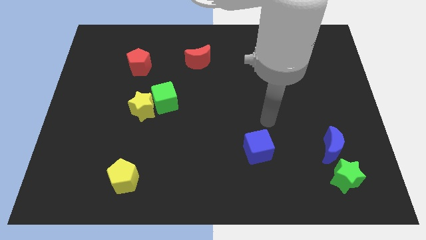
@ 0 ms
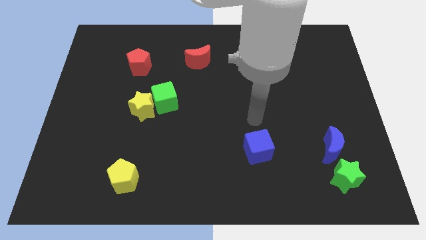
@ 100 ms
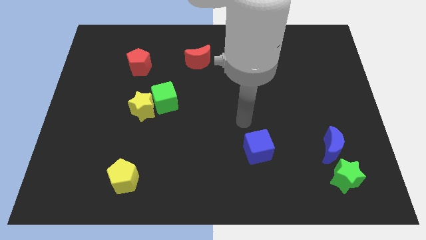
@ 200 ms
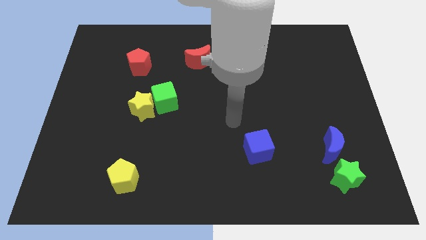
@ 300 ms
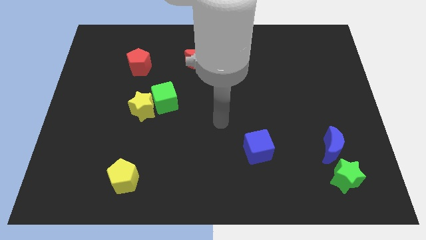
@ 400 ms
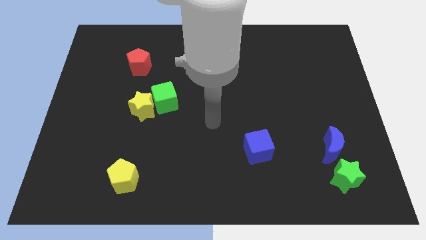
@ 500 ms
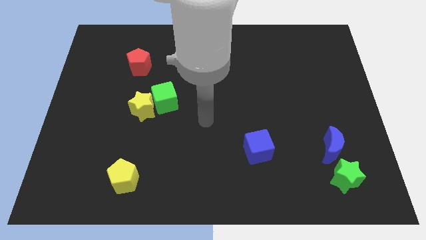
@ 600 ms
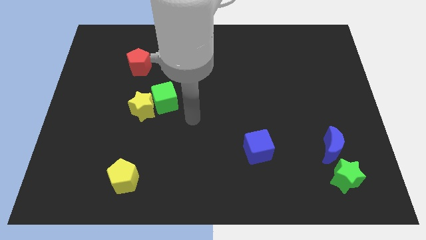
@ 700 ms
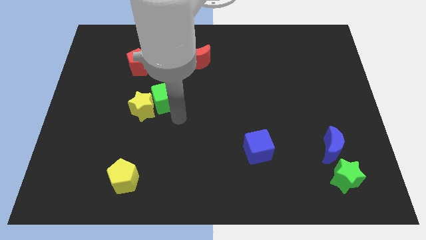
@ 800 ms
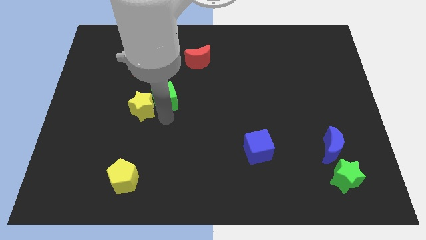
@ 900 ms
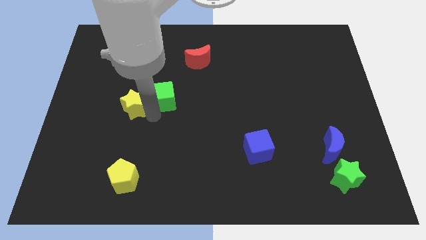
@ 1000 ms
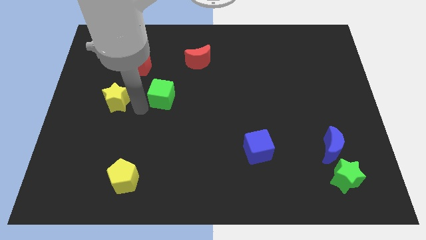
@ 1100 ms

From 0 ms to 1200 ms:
move the green cube away from the yellow star

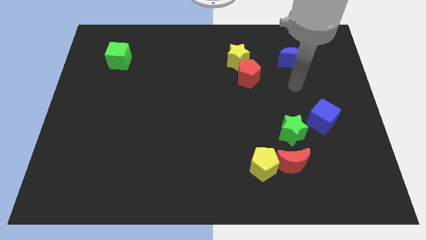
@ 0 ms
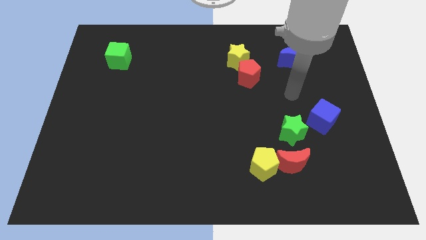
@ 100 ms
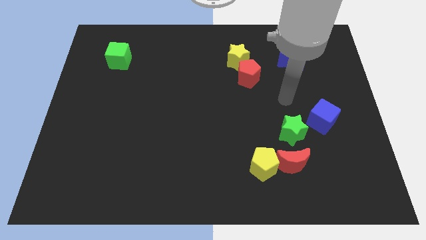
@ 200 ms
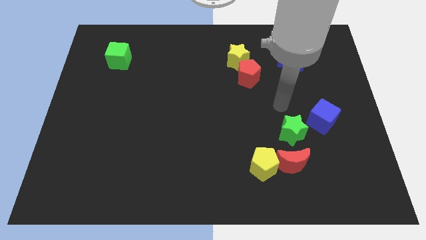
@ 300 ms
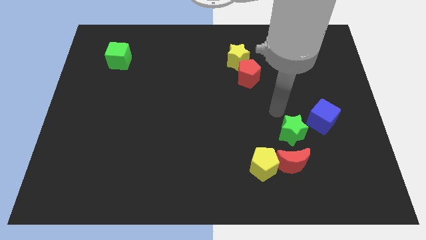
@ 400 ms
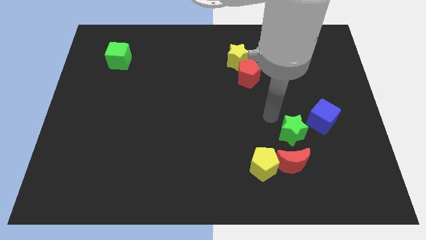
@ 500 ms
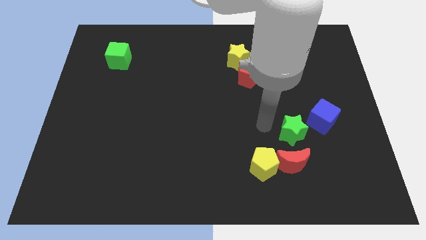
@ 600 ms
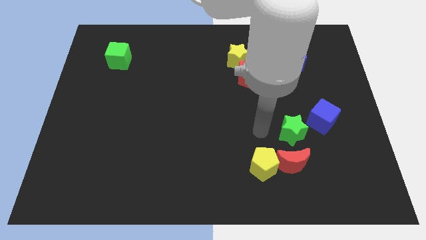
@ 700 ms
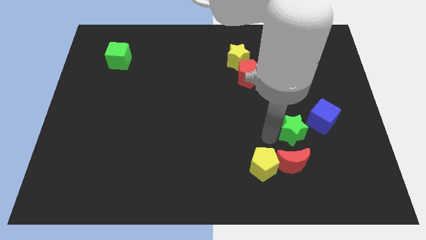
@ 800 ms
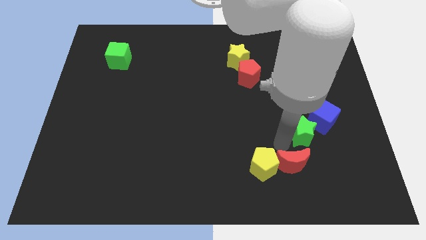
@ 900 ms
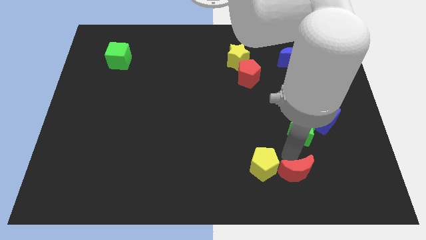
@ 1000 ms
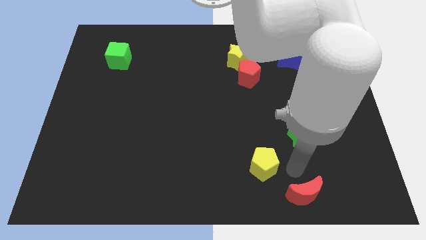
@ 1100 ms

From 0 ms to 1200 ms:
separate the yellow pentagon from the red moon

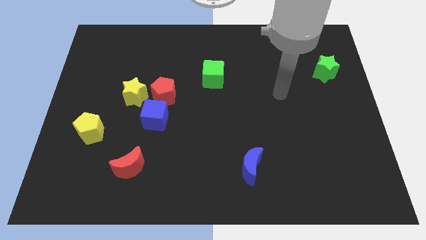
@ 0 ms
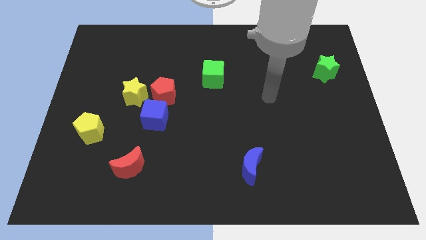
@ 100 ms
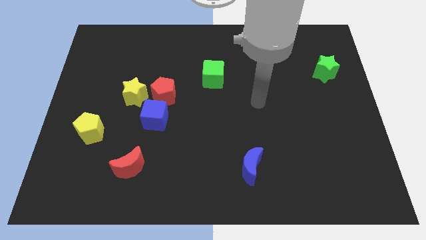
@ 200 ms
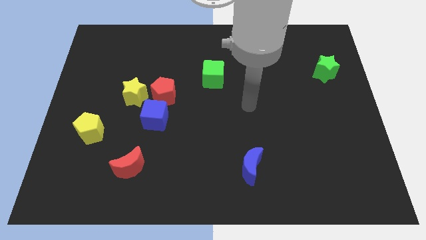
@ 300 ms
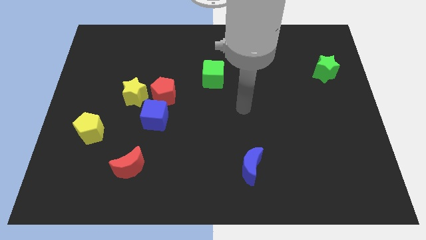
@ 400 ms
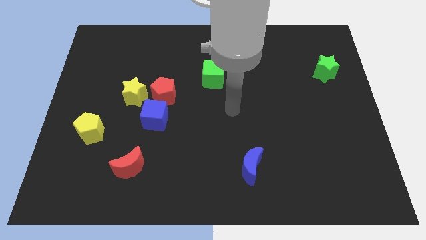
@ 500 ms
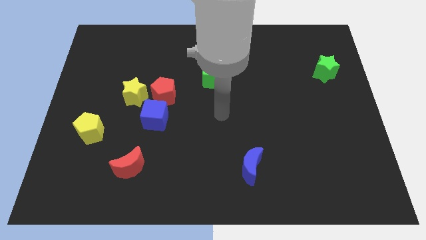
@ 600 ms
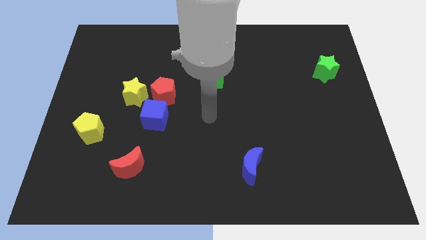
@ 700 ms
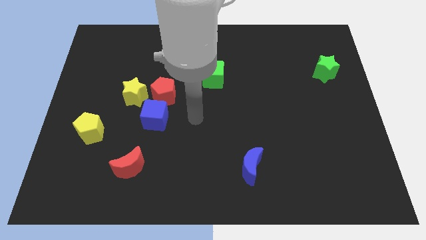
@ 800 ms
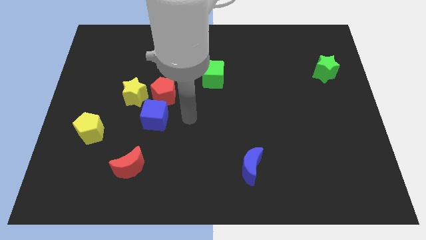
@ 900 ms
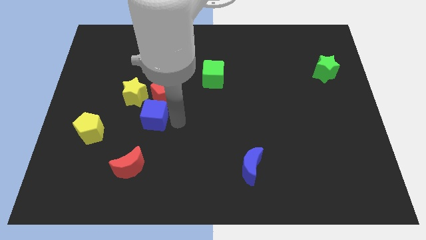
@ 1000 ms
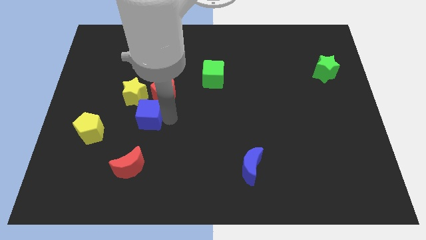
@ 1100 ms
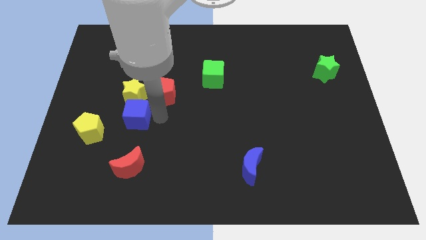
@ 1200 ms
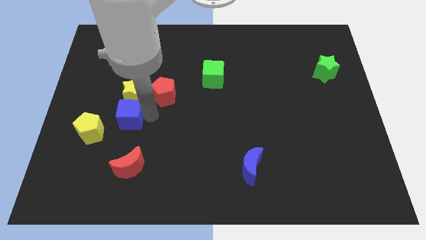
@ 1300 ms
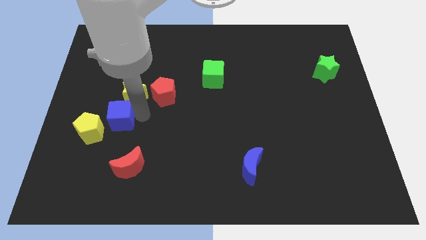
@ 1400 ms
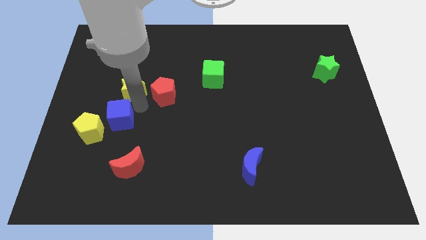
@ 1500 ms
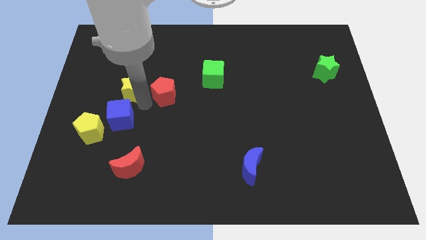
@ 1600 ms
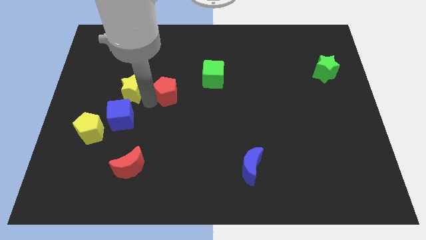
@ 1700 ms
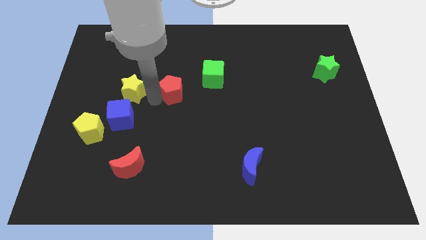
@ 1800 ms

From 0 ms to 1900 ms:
pull the red pentagon apart from the blue cube and yellow star

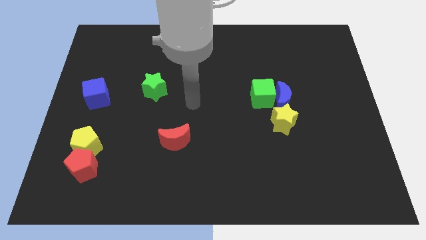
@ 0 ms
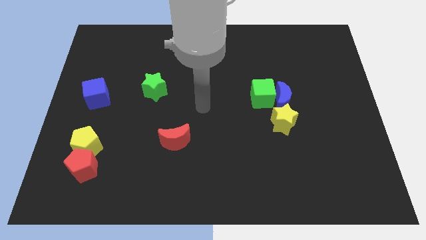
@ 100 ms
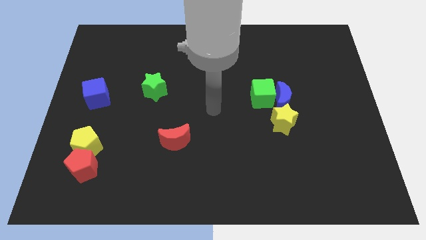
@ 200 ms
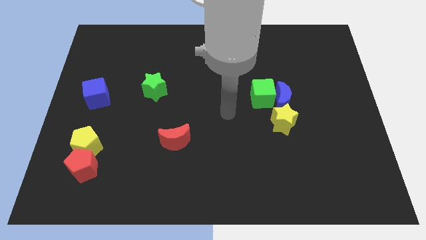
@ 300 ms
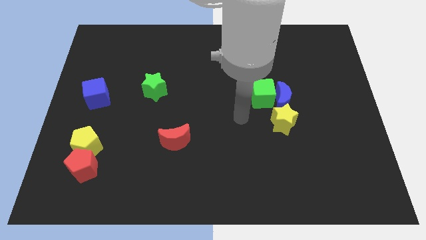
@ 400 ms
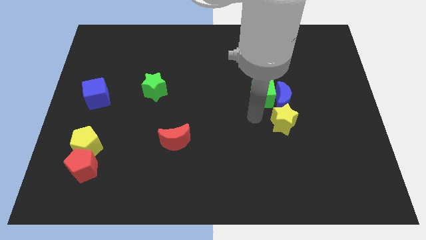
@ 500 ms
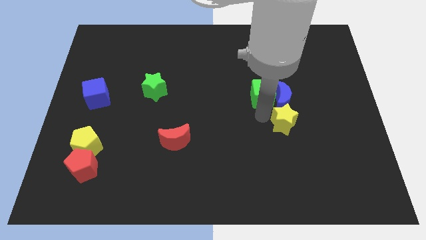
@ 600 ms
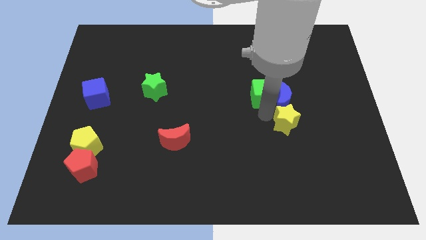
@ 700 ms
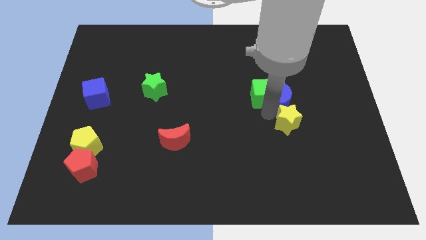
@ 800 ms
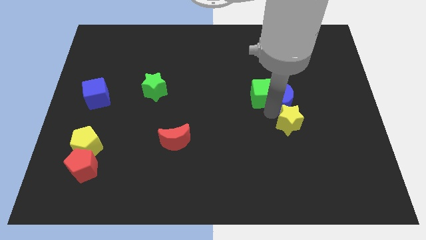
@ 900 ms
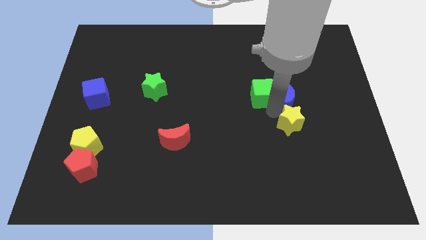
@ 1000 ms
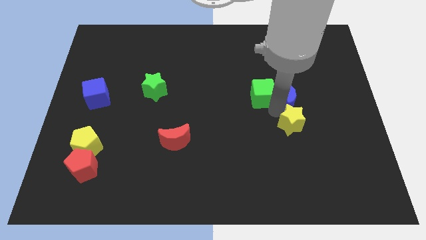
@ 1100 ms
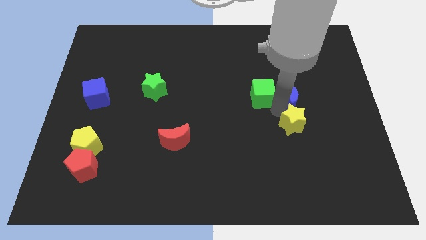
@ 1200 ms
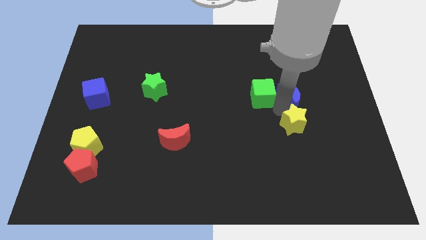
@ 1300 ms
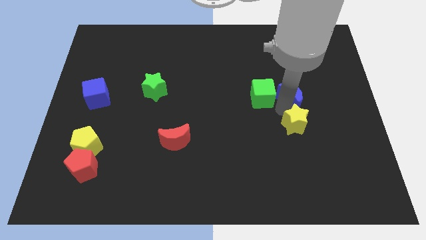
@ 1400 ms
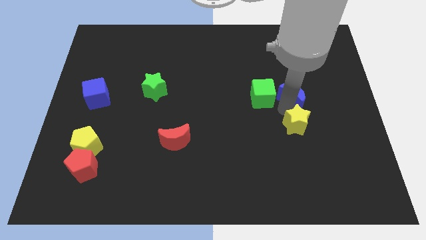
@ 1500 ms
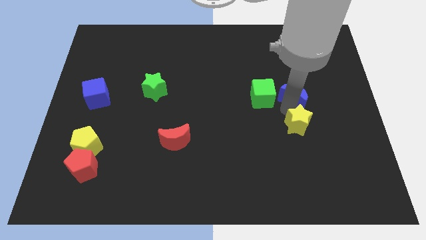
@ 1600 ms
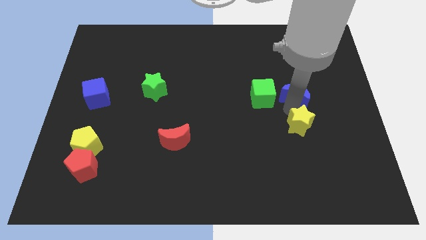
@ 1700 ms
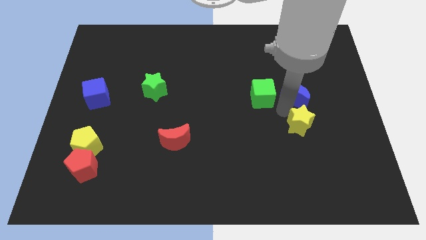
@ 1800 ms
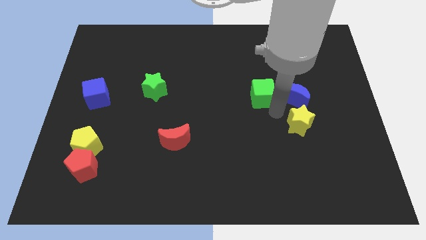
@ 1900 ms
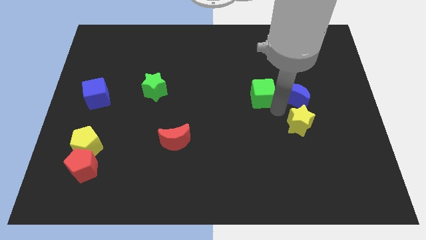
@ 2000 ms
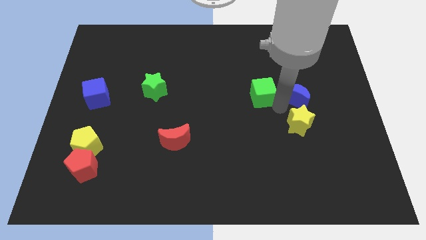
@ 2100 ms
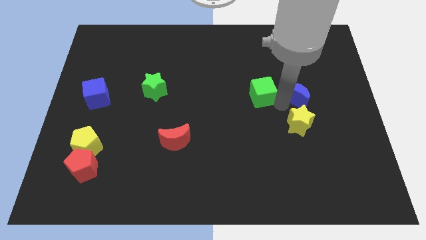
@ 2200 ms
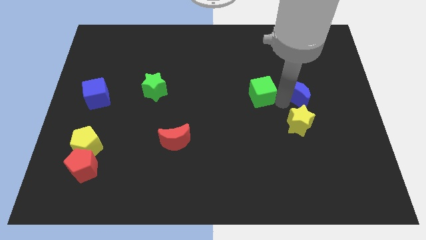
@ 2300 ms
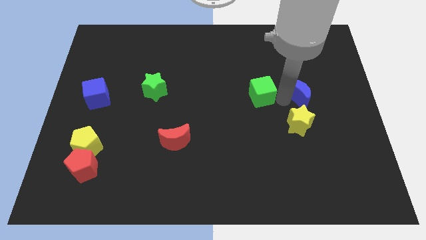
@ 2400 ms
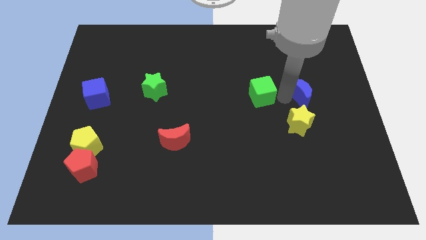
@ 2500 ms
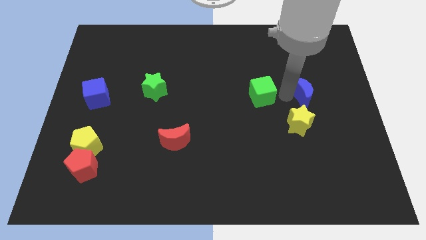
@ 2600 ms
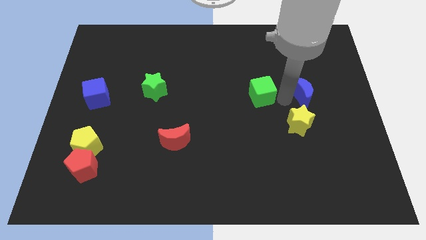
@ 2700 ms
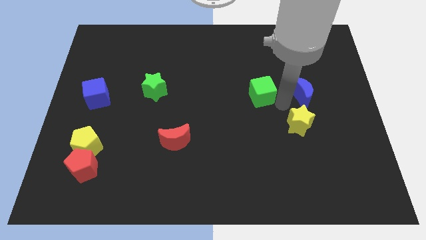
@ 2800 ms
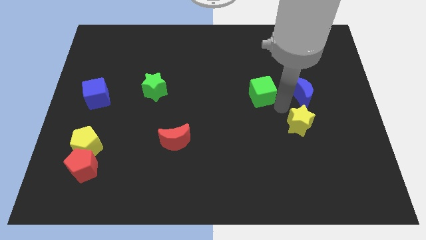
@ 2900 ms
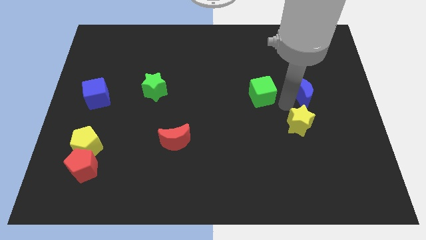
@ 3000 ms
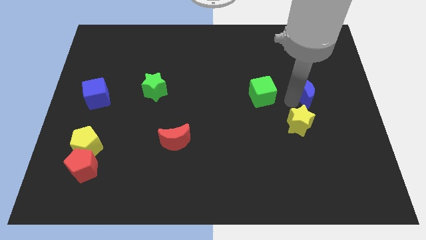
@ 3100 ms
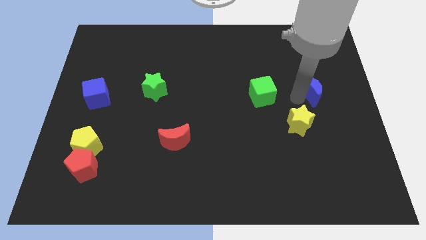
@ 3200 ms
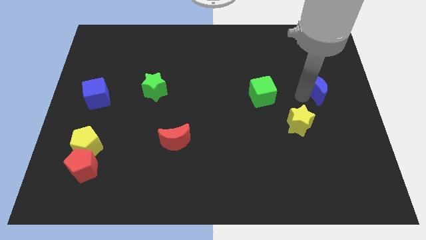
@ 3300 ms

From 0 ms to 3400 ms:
pull the blue moon apart from the green cube and yellow star

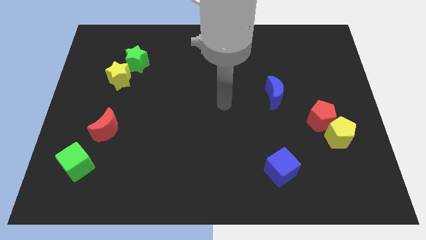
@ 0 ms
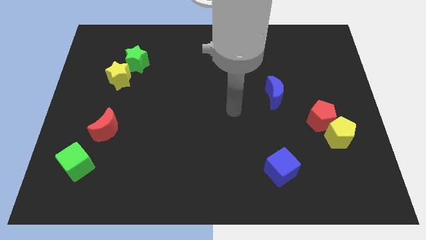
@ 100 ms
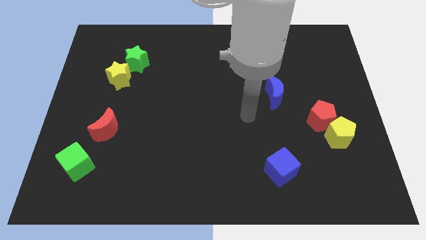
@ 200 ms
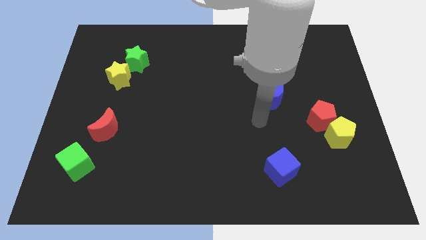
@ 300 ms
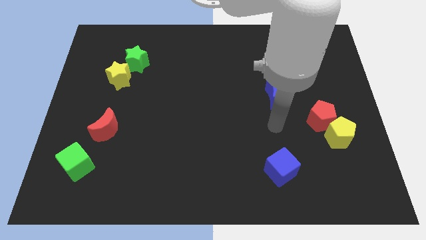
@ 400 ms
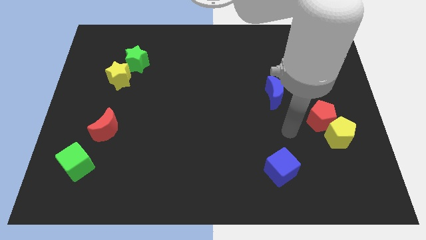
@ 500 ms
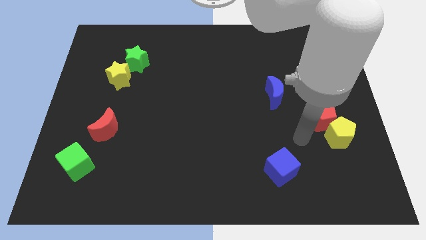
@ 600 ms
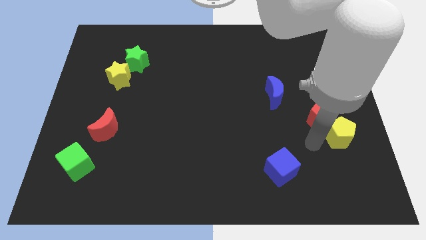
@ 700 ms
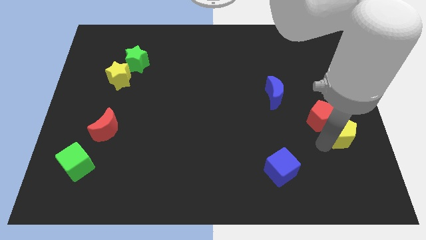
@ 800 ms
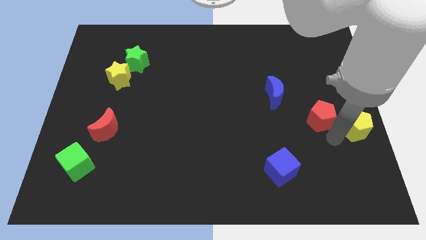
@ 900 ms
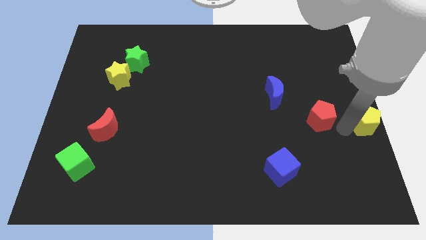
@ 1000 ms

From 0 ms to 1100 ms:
move the red pentagon away from the yellow pentagon

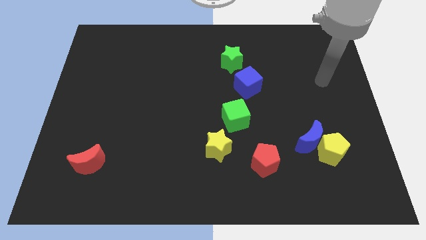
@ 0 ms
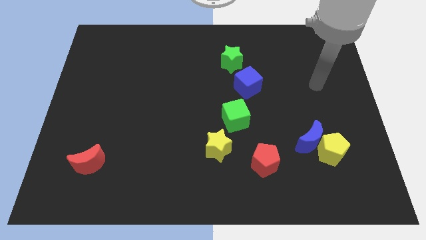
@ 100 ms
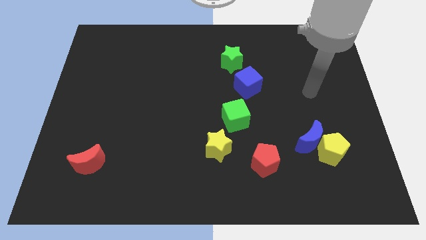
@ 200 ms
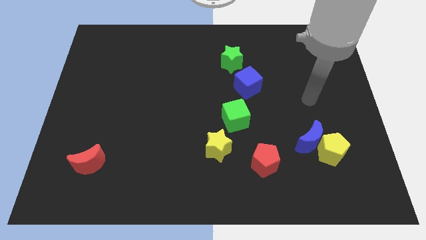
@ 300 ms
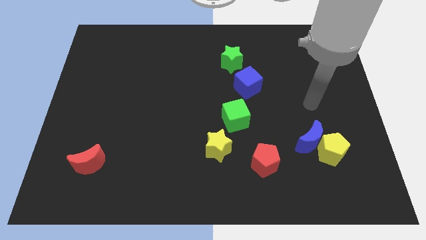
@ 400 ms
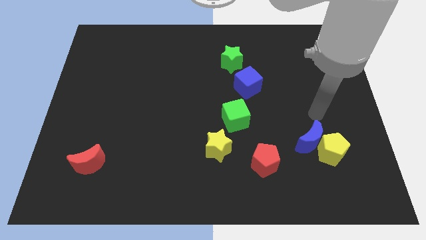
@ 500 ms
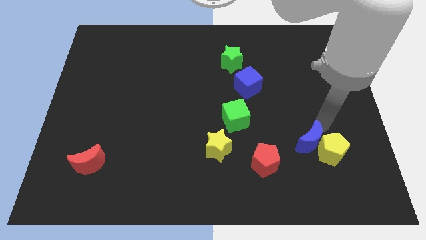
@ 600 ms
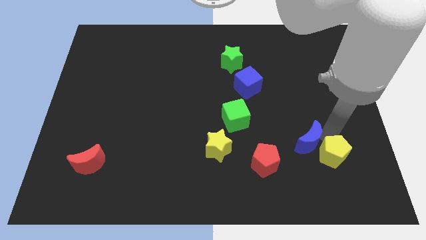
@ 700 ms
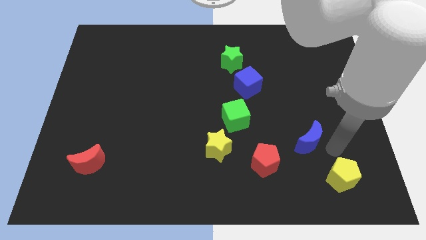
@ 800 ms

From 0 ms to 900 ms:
separate the blue moon from the yellow pentagon
